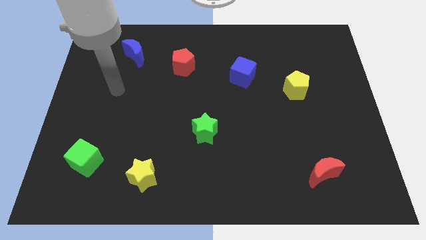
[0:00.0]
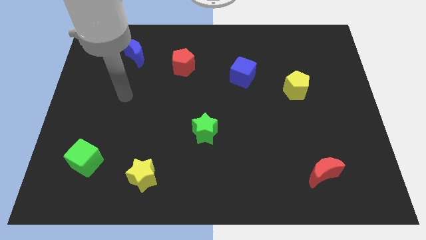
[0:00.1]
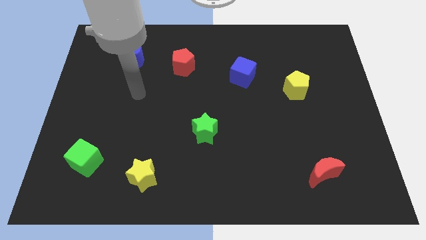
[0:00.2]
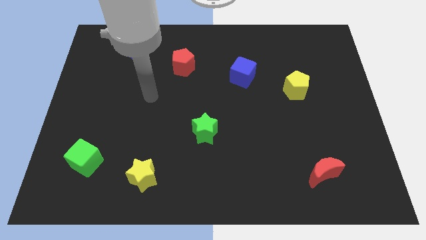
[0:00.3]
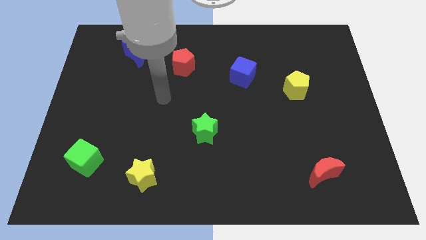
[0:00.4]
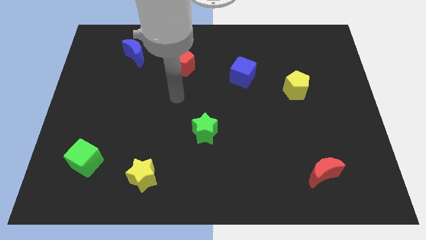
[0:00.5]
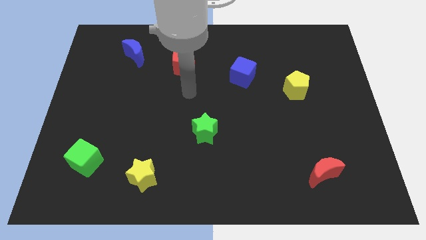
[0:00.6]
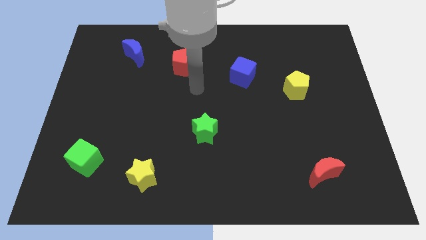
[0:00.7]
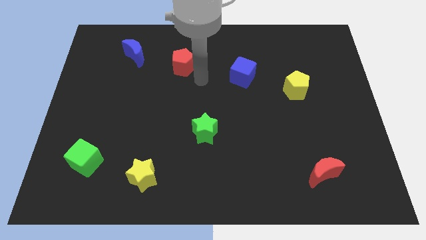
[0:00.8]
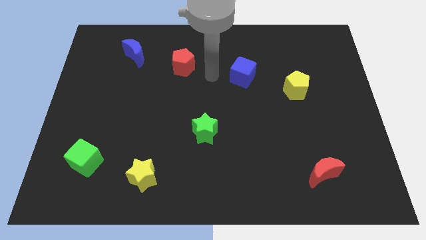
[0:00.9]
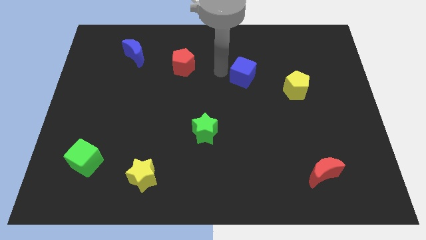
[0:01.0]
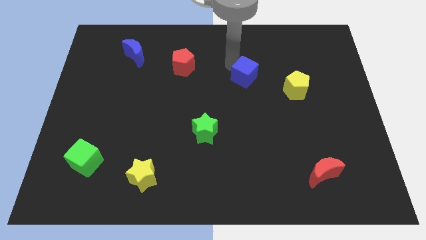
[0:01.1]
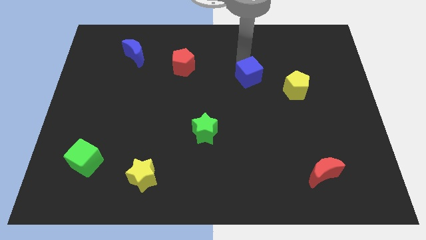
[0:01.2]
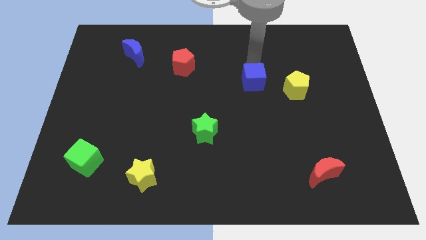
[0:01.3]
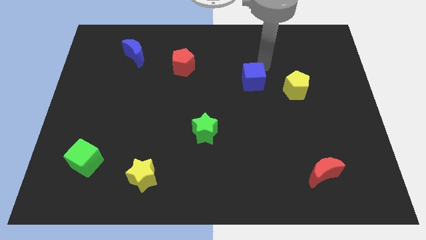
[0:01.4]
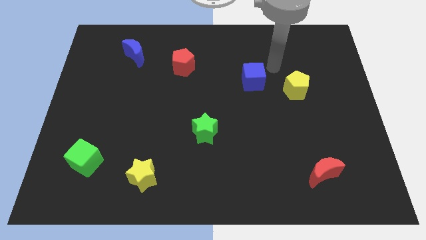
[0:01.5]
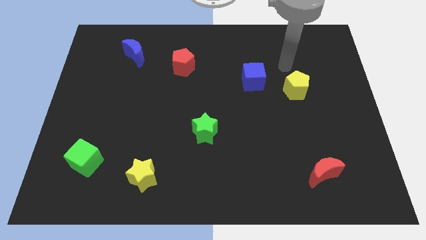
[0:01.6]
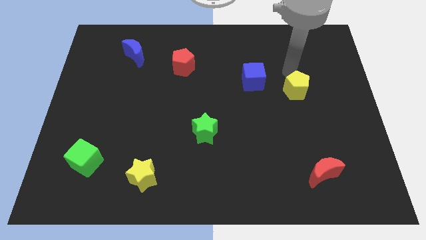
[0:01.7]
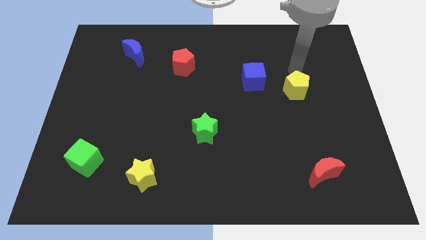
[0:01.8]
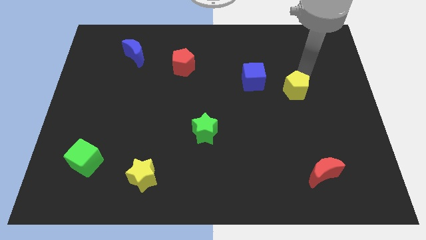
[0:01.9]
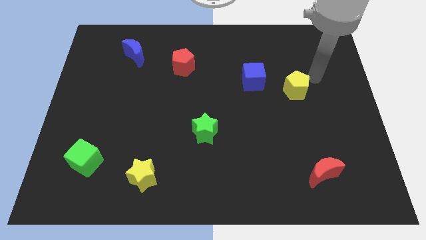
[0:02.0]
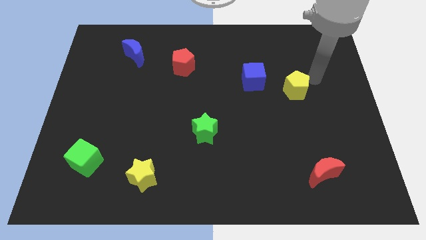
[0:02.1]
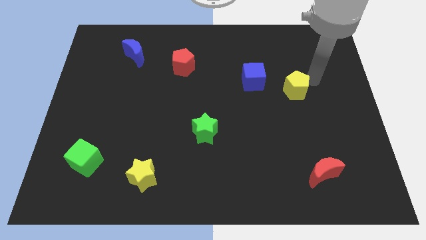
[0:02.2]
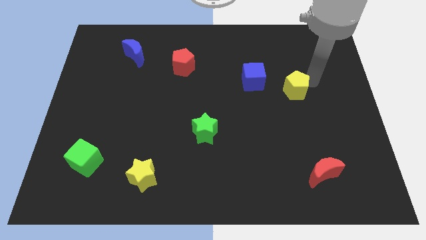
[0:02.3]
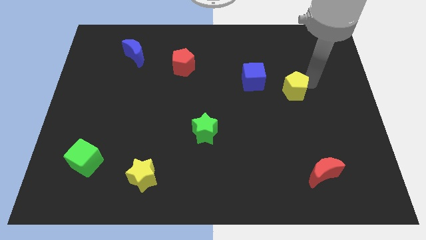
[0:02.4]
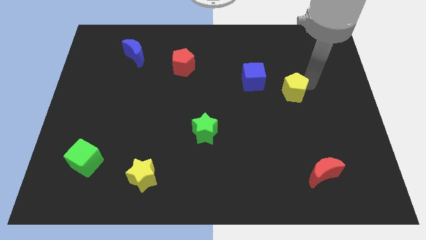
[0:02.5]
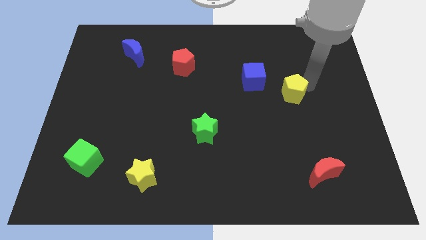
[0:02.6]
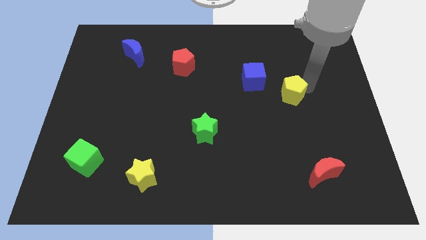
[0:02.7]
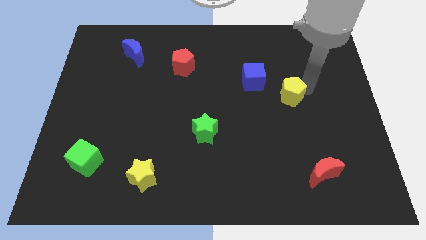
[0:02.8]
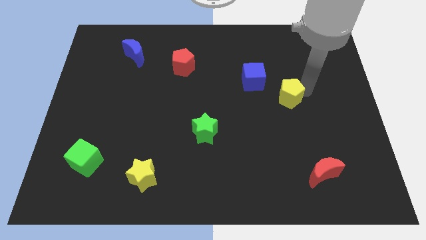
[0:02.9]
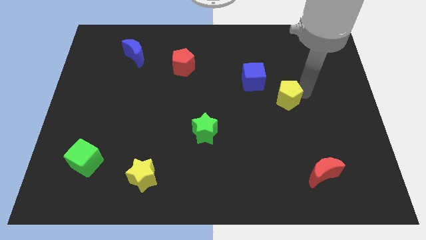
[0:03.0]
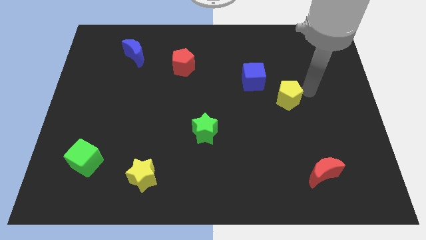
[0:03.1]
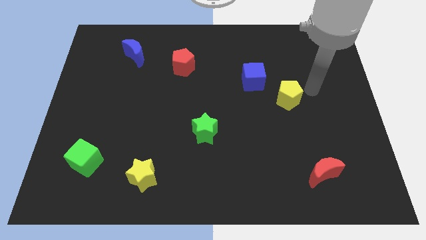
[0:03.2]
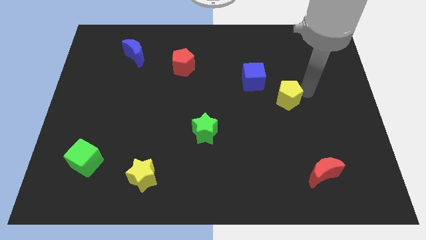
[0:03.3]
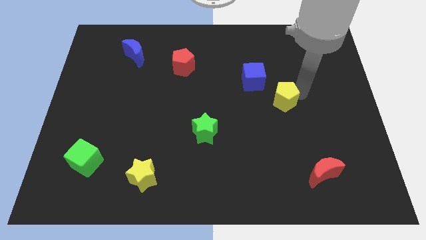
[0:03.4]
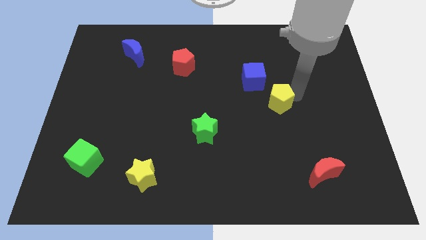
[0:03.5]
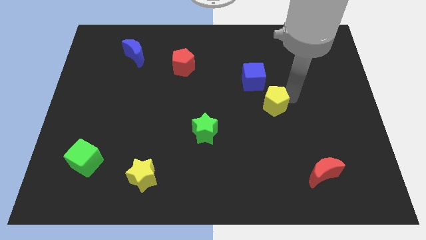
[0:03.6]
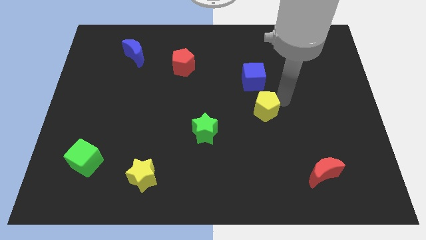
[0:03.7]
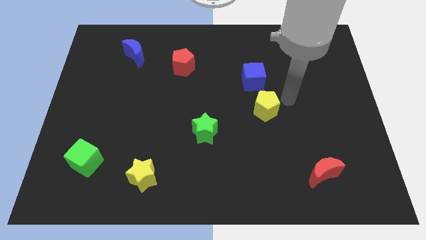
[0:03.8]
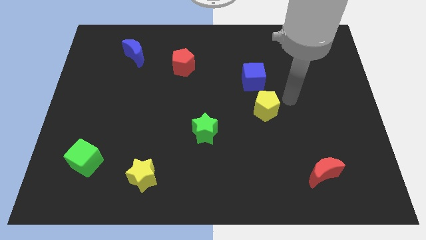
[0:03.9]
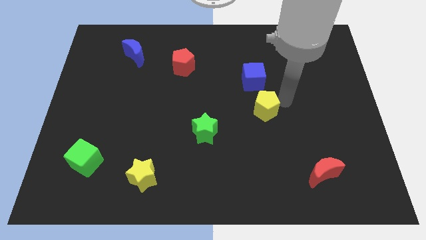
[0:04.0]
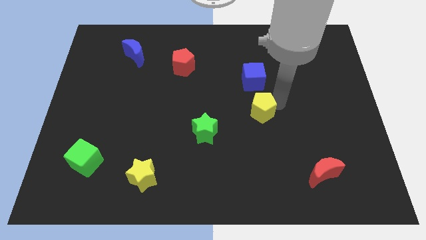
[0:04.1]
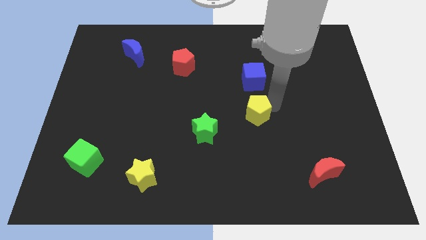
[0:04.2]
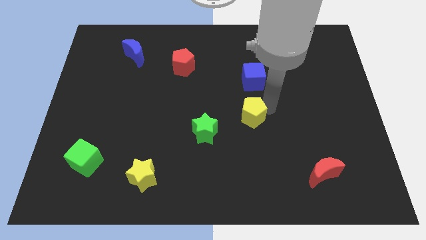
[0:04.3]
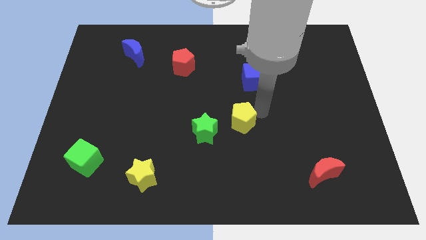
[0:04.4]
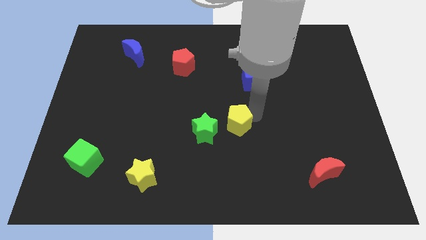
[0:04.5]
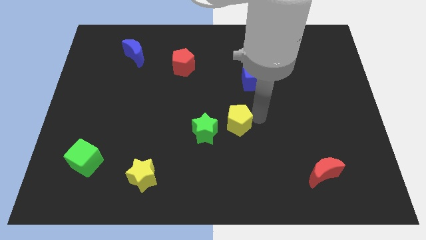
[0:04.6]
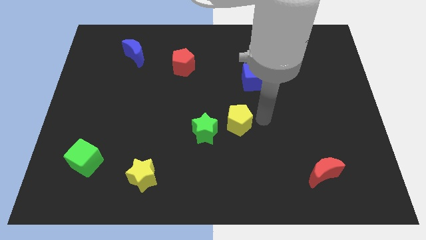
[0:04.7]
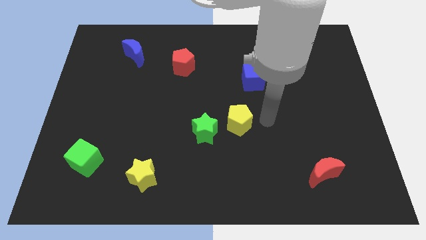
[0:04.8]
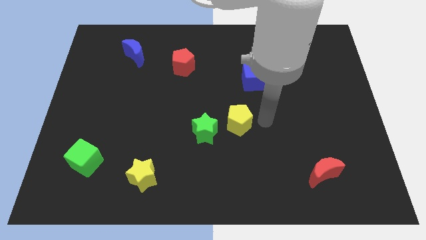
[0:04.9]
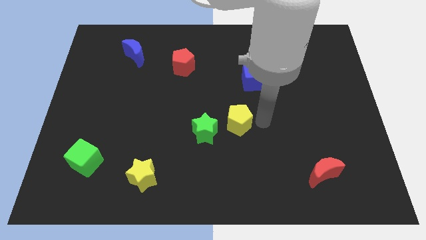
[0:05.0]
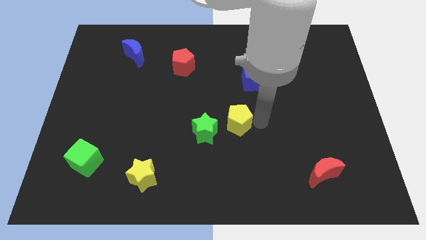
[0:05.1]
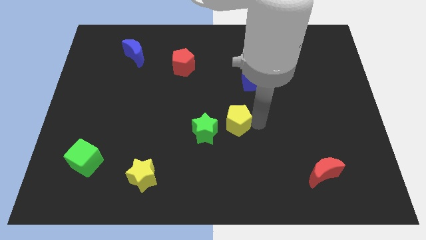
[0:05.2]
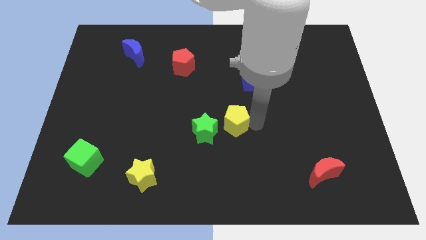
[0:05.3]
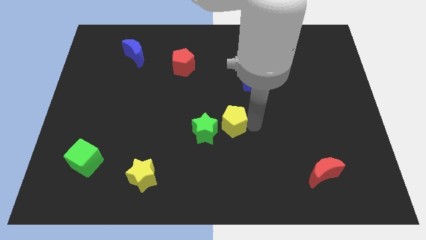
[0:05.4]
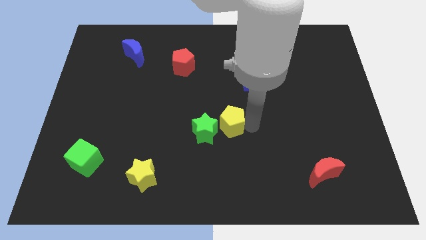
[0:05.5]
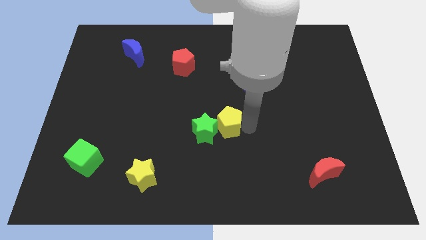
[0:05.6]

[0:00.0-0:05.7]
put the yellow pentagon close to the green star

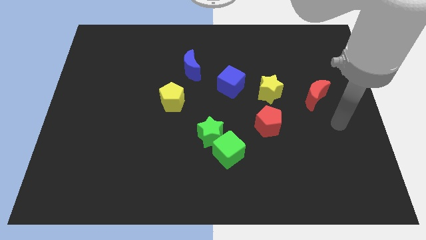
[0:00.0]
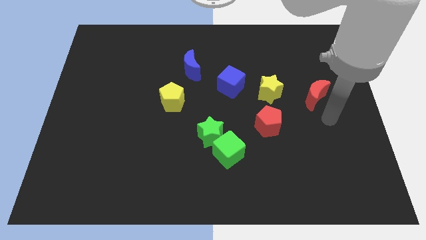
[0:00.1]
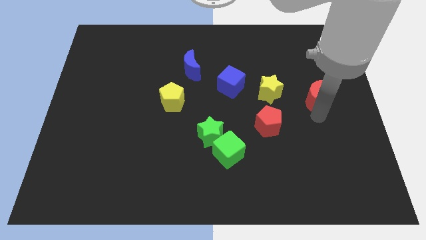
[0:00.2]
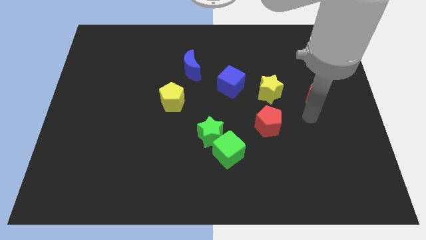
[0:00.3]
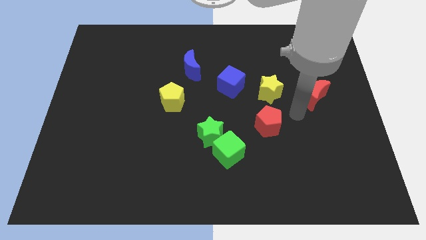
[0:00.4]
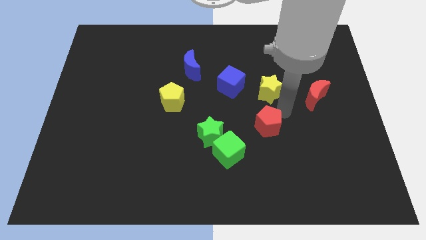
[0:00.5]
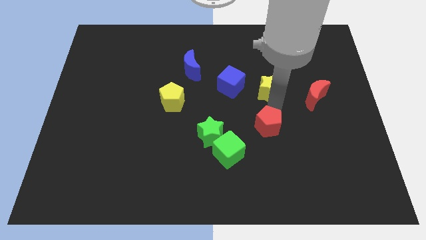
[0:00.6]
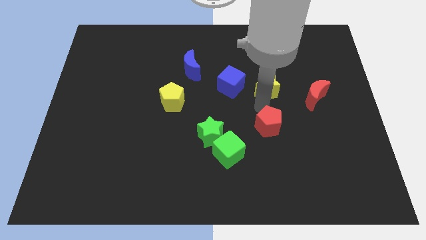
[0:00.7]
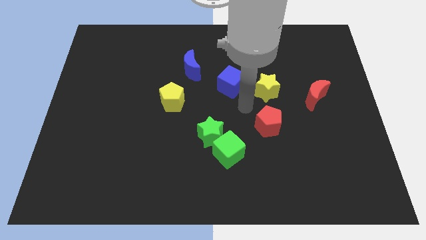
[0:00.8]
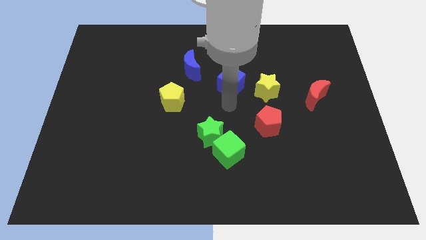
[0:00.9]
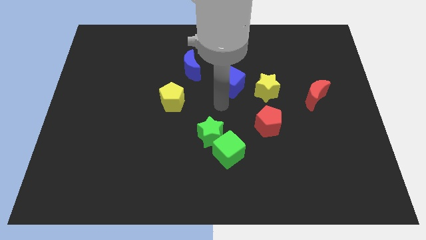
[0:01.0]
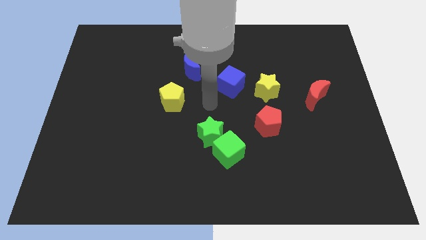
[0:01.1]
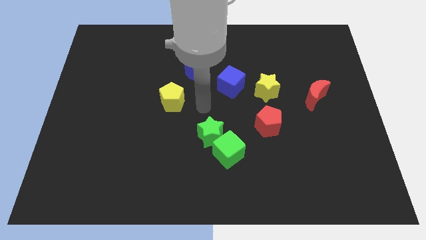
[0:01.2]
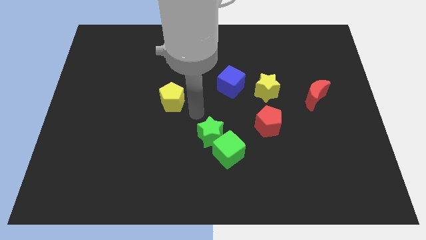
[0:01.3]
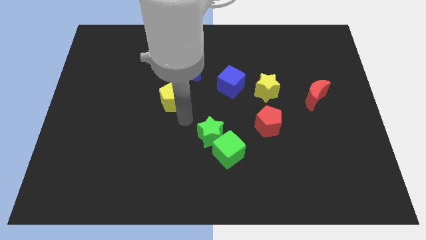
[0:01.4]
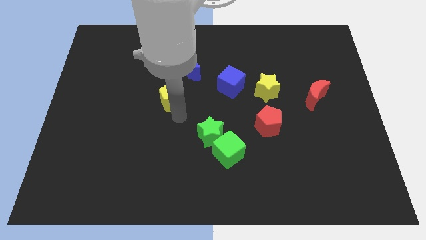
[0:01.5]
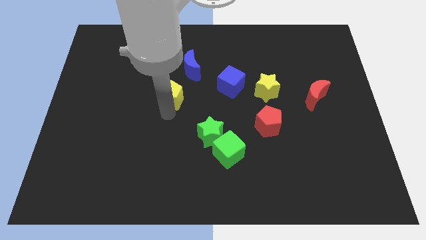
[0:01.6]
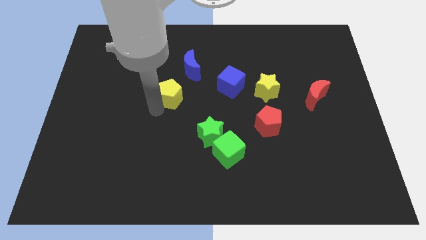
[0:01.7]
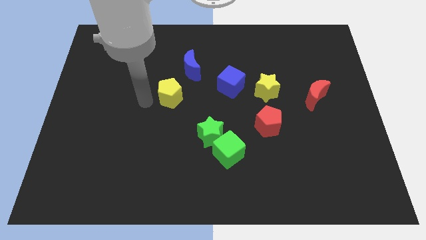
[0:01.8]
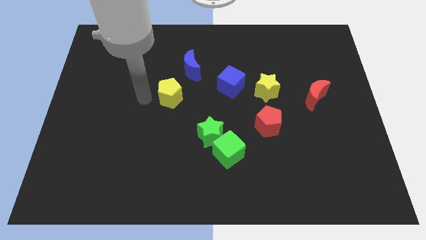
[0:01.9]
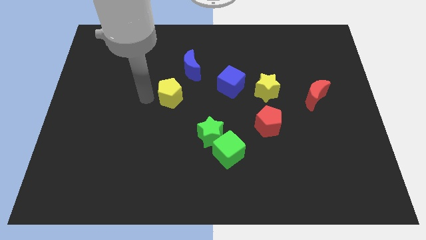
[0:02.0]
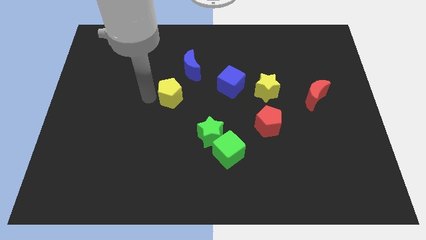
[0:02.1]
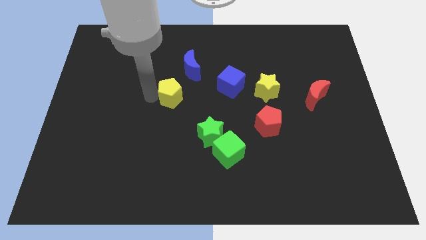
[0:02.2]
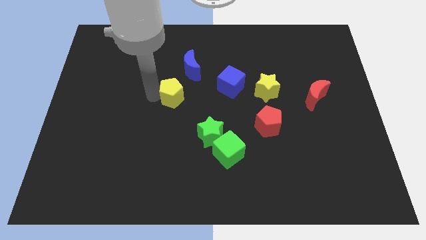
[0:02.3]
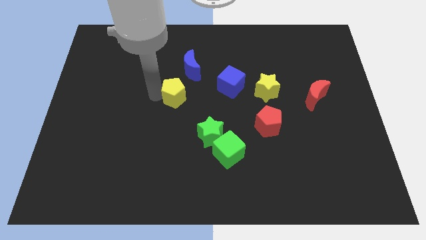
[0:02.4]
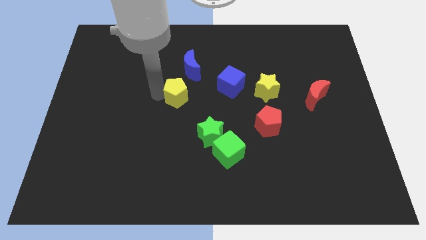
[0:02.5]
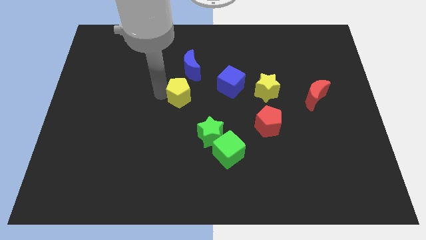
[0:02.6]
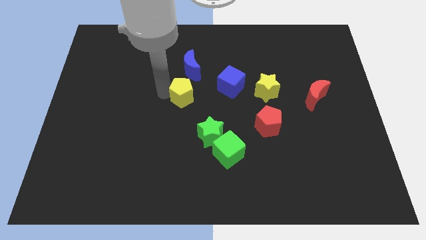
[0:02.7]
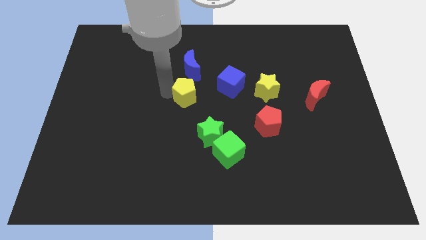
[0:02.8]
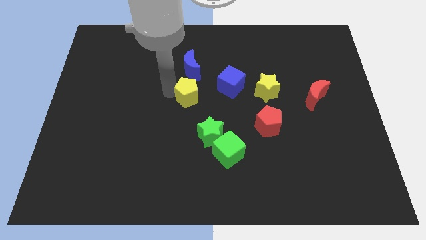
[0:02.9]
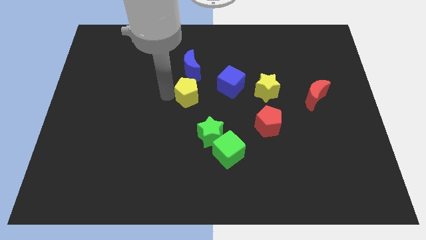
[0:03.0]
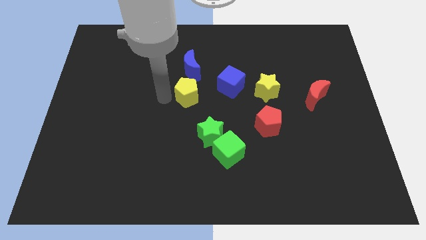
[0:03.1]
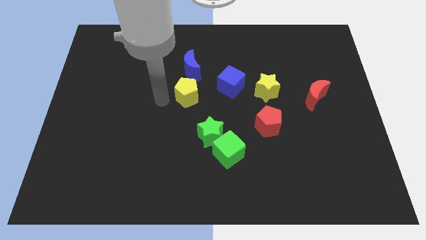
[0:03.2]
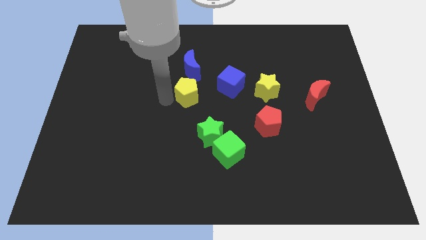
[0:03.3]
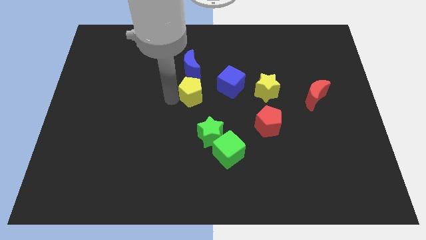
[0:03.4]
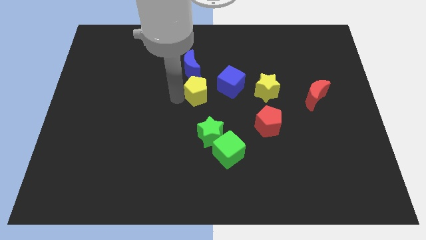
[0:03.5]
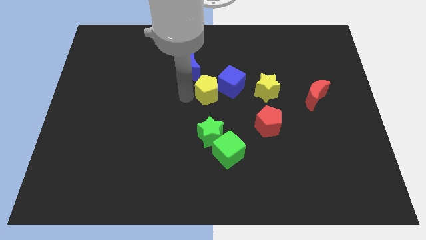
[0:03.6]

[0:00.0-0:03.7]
put the yellow pentagon towards the blue cube
